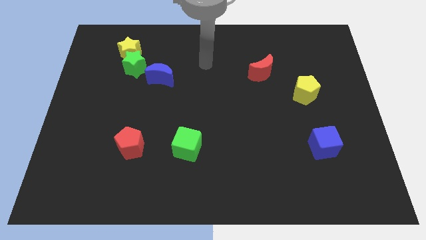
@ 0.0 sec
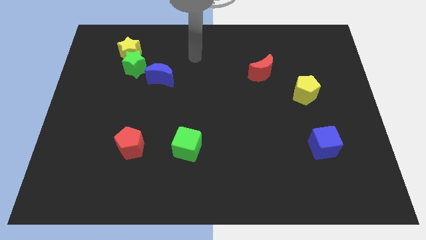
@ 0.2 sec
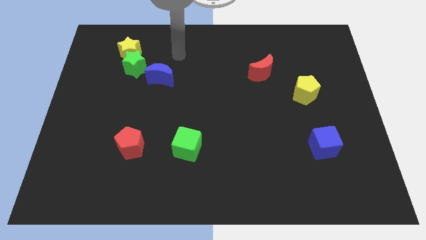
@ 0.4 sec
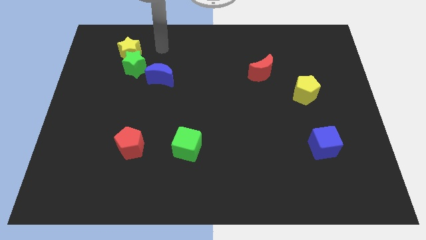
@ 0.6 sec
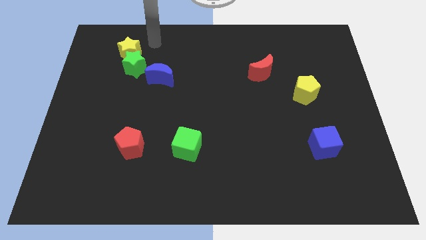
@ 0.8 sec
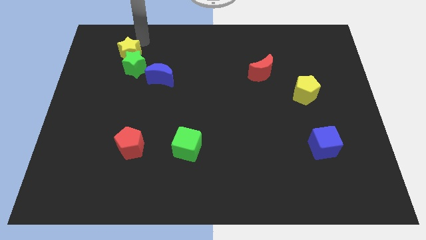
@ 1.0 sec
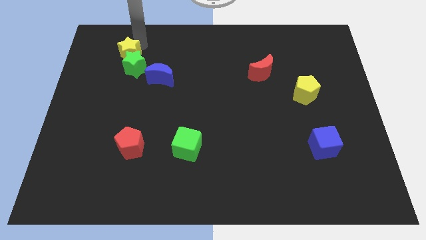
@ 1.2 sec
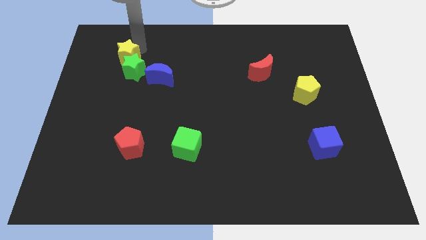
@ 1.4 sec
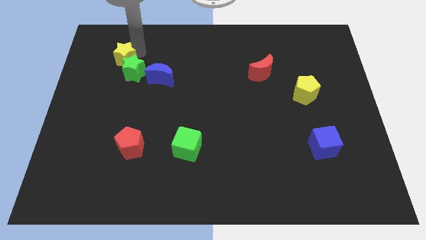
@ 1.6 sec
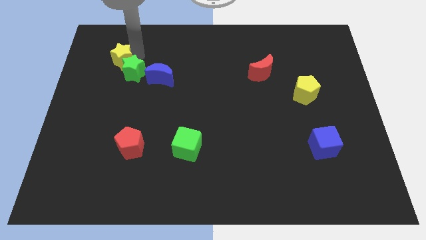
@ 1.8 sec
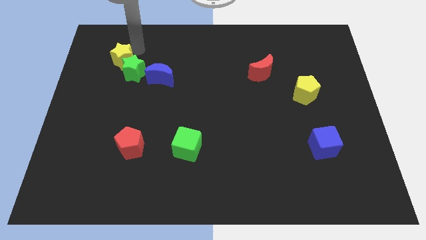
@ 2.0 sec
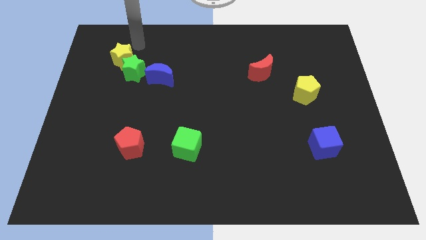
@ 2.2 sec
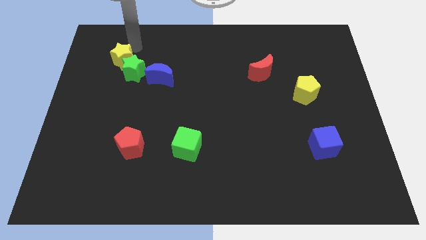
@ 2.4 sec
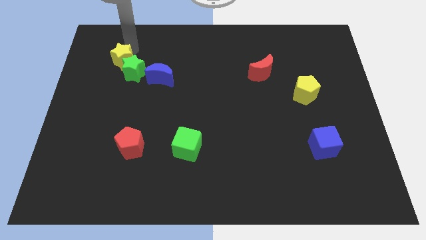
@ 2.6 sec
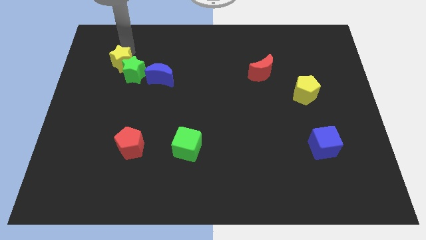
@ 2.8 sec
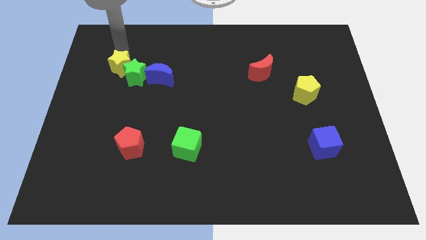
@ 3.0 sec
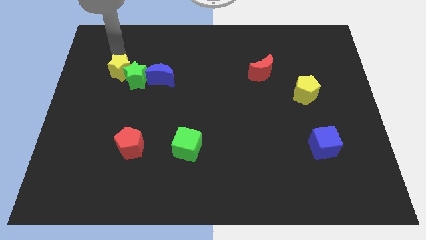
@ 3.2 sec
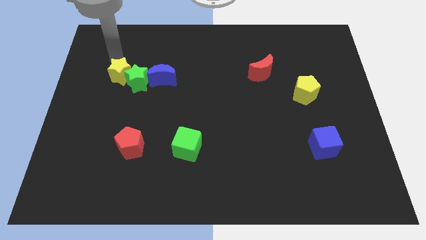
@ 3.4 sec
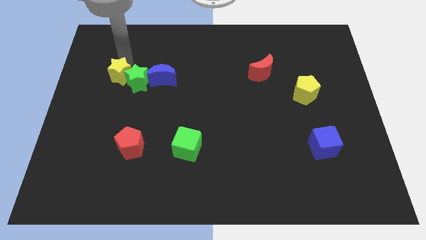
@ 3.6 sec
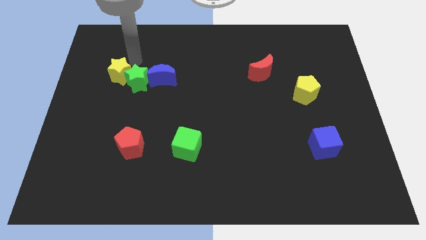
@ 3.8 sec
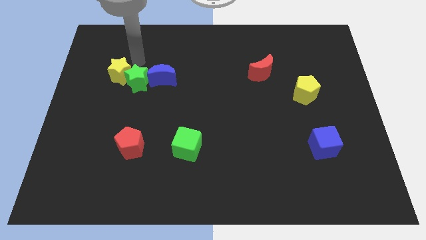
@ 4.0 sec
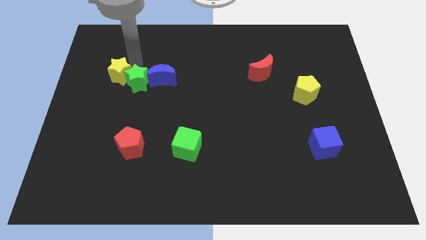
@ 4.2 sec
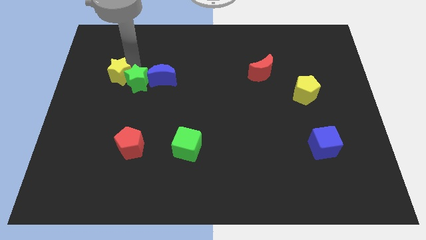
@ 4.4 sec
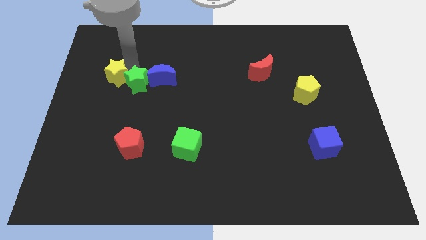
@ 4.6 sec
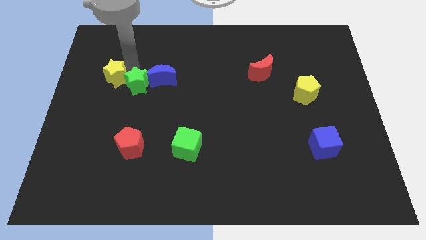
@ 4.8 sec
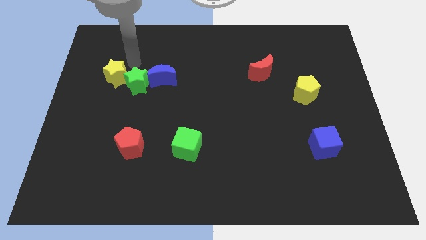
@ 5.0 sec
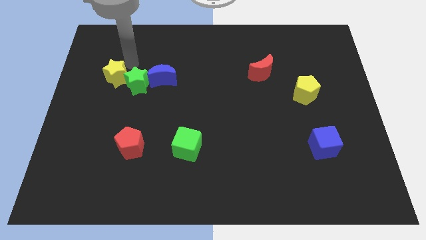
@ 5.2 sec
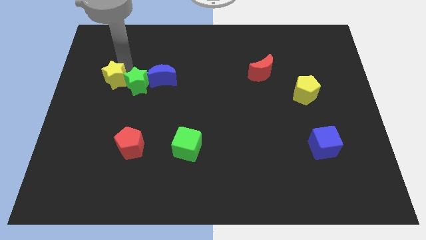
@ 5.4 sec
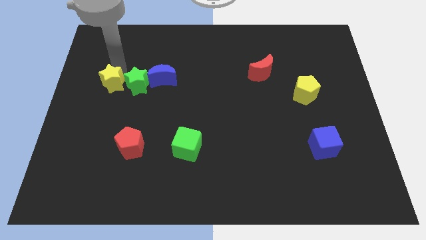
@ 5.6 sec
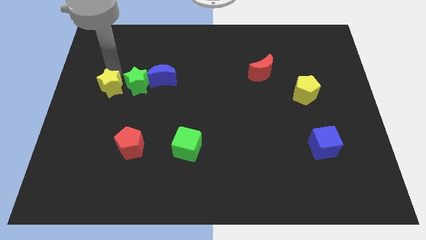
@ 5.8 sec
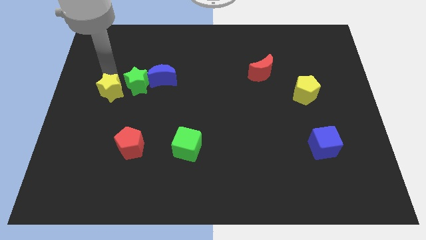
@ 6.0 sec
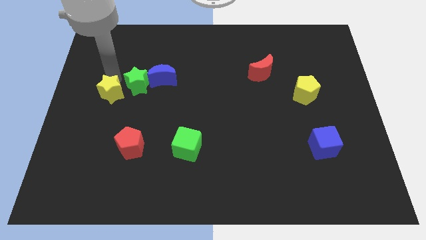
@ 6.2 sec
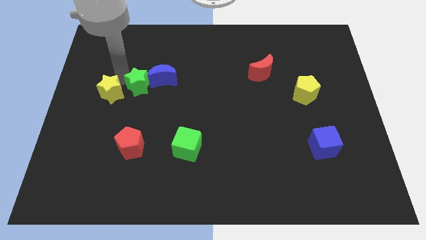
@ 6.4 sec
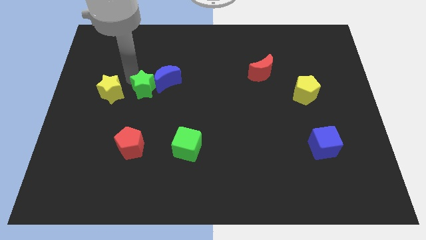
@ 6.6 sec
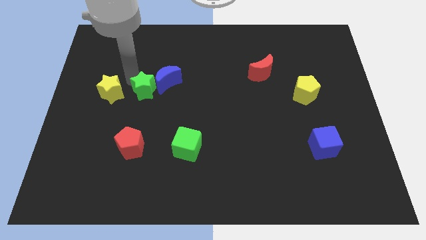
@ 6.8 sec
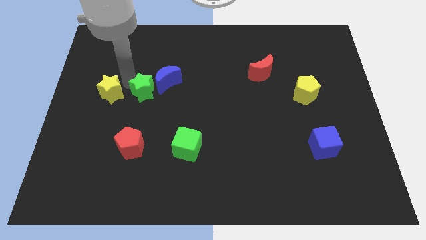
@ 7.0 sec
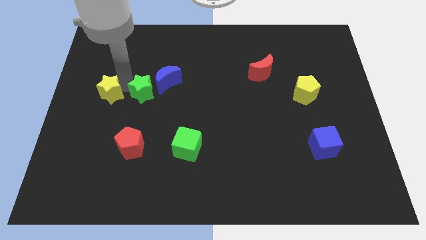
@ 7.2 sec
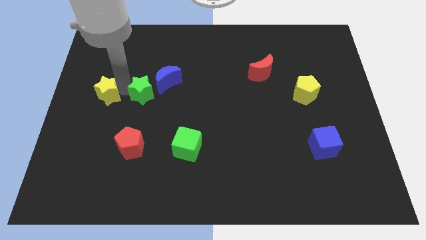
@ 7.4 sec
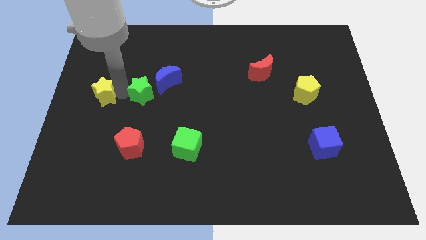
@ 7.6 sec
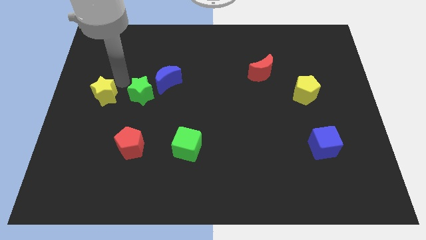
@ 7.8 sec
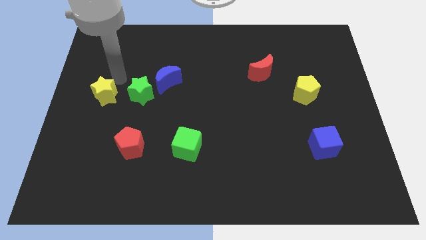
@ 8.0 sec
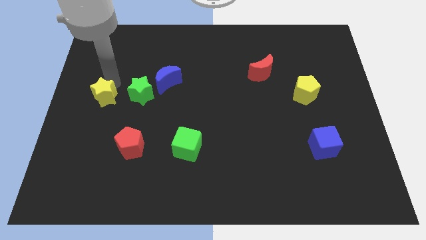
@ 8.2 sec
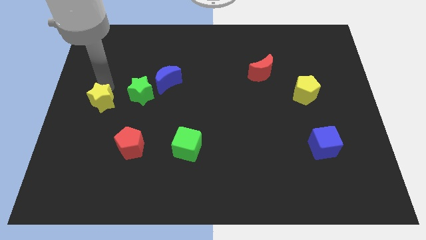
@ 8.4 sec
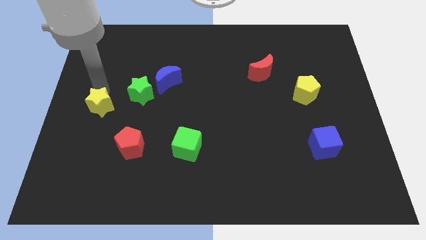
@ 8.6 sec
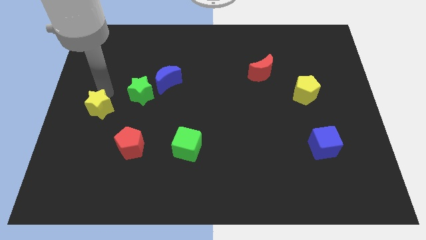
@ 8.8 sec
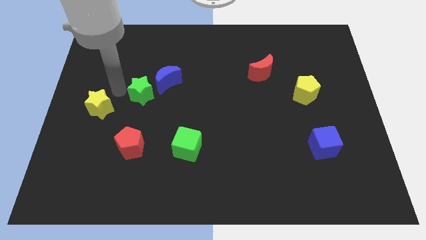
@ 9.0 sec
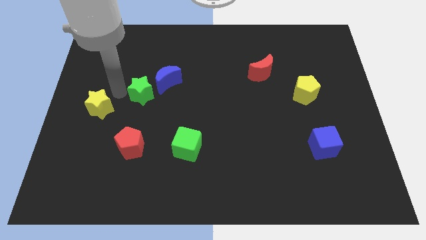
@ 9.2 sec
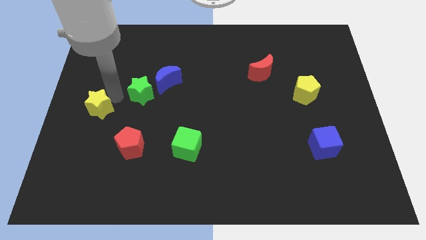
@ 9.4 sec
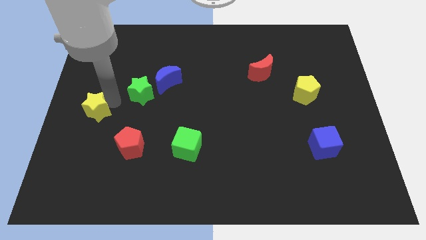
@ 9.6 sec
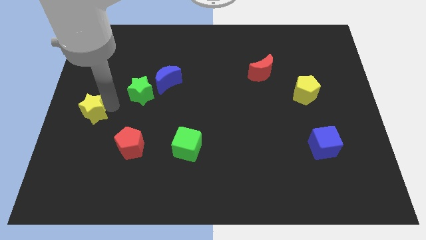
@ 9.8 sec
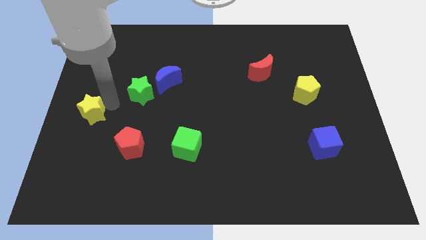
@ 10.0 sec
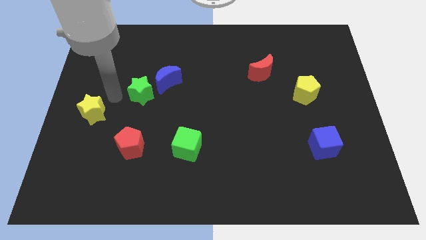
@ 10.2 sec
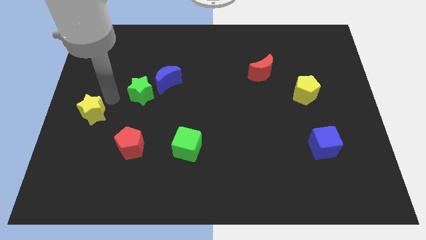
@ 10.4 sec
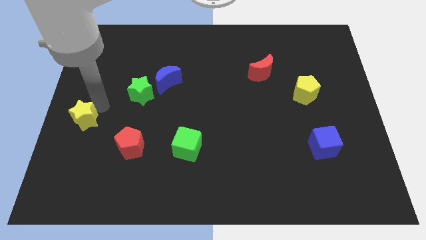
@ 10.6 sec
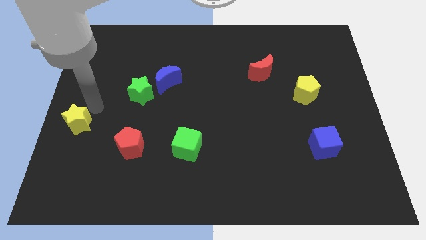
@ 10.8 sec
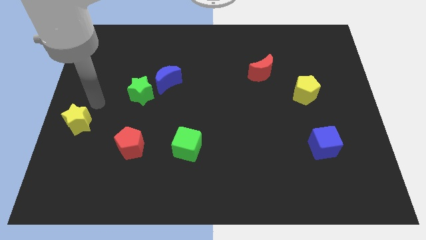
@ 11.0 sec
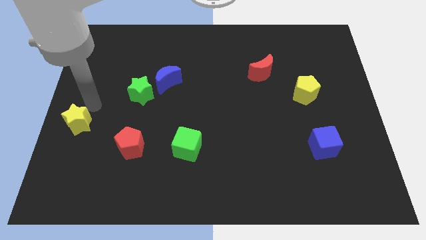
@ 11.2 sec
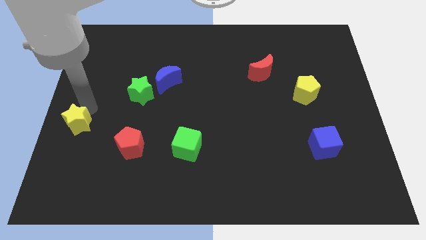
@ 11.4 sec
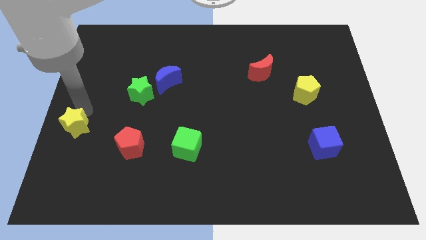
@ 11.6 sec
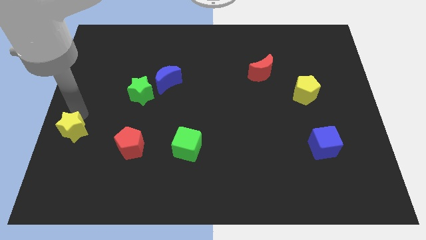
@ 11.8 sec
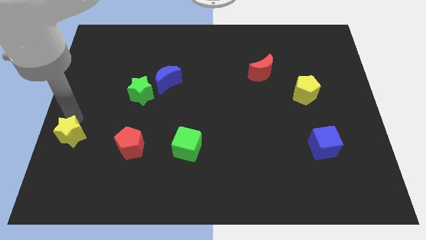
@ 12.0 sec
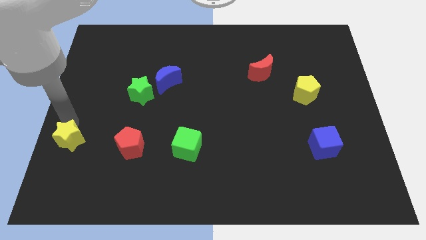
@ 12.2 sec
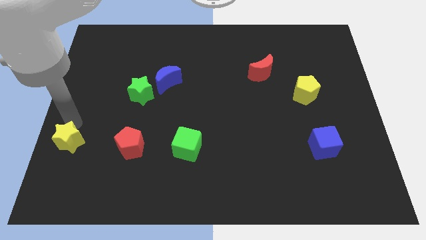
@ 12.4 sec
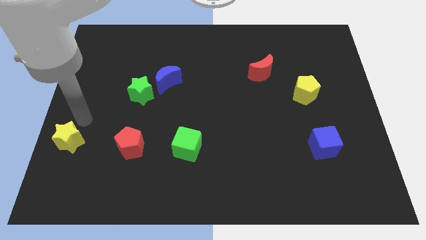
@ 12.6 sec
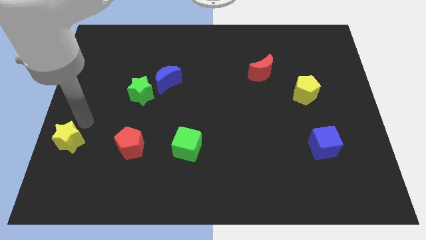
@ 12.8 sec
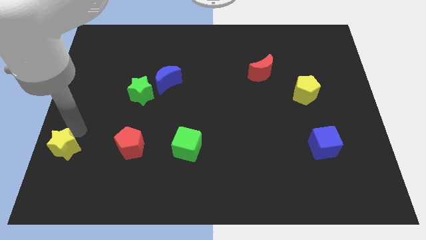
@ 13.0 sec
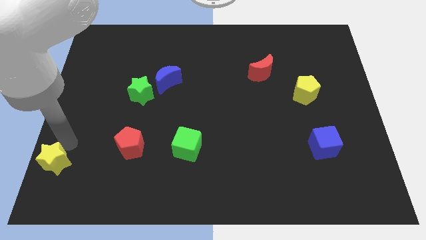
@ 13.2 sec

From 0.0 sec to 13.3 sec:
move the yellow star to the bottom left of the board
